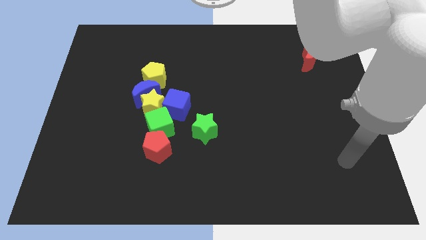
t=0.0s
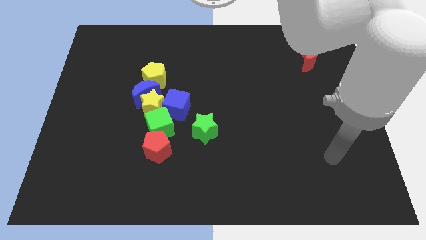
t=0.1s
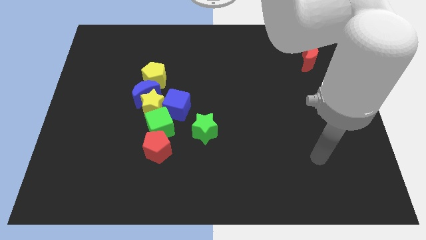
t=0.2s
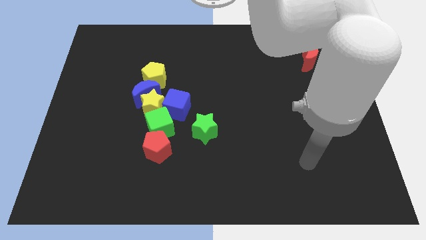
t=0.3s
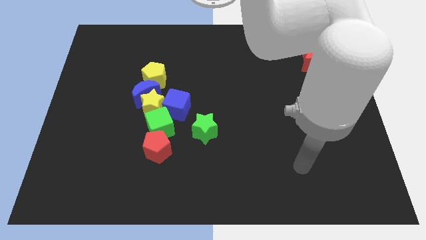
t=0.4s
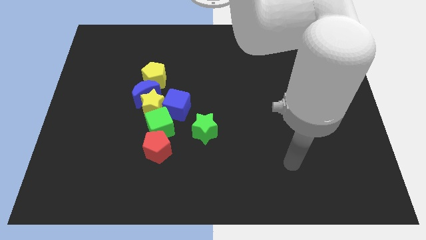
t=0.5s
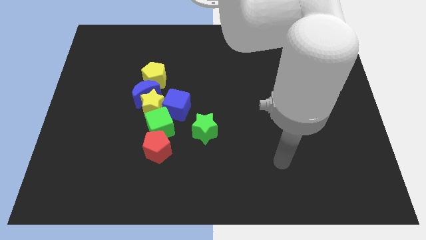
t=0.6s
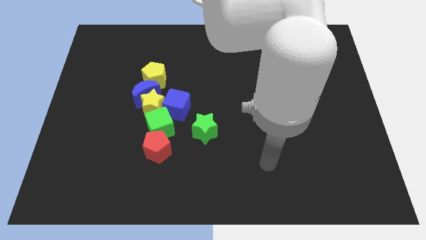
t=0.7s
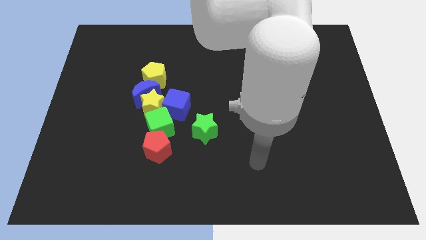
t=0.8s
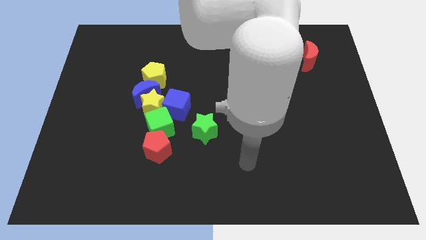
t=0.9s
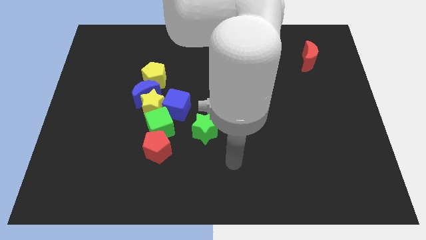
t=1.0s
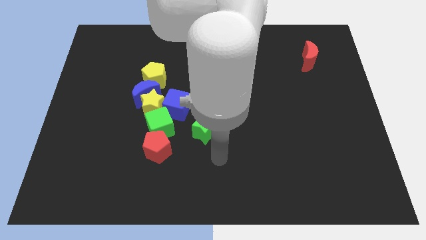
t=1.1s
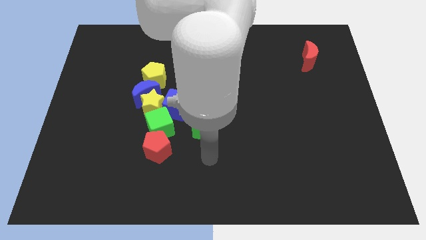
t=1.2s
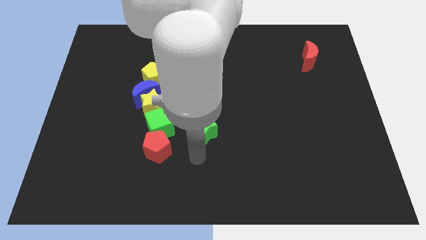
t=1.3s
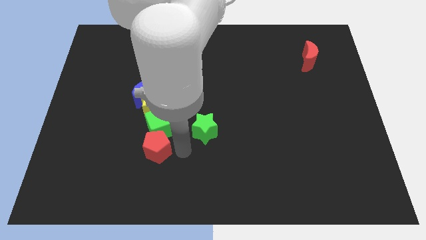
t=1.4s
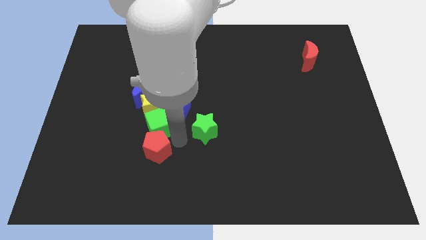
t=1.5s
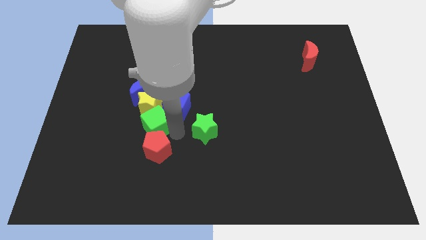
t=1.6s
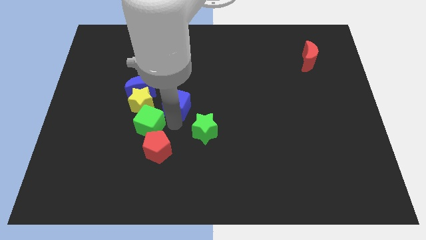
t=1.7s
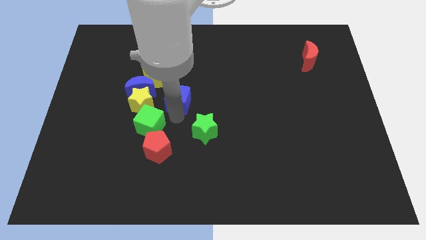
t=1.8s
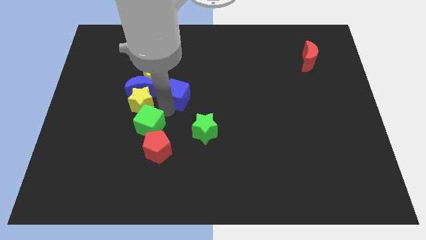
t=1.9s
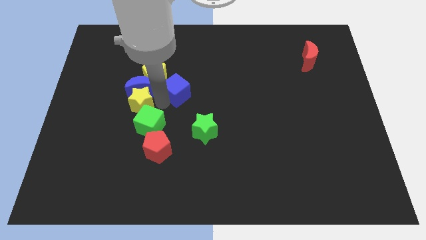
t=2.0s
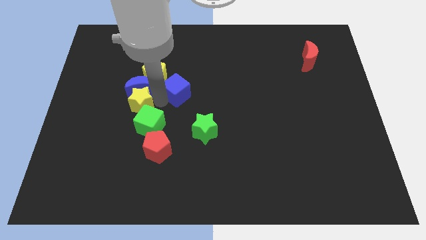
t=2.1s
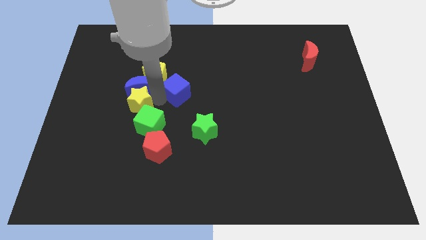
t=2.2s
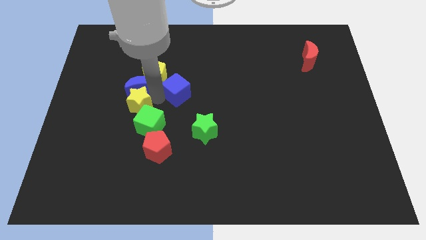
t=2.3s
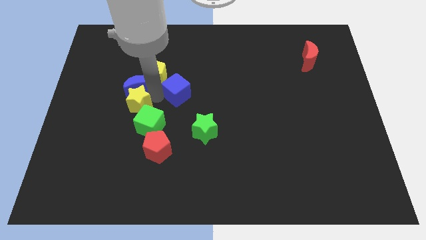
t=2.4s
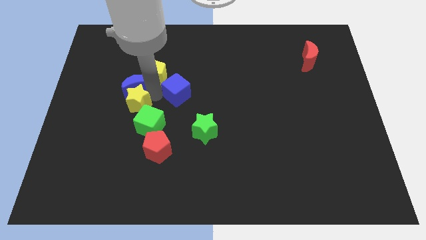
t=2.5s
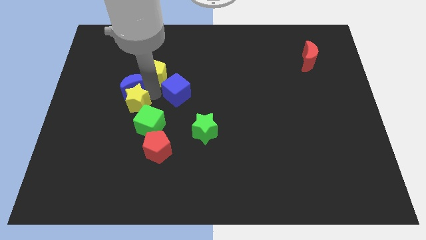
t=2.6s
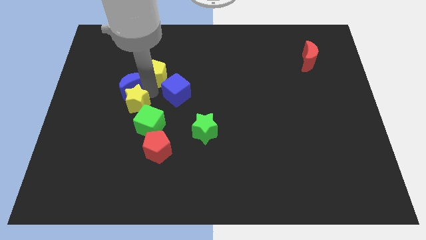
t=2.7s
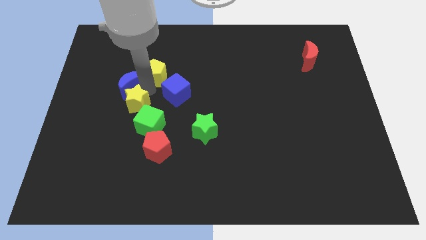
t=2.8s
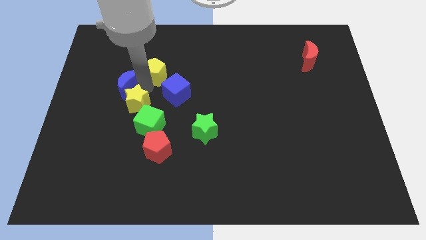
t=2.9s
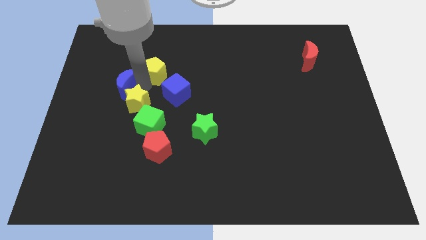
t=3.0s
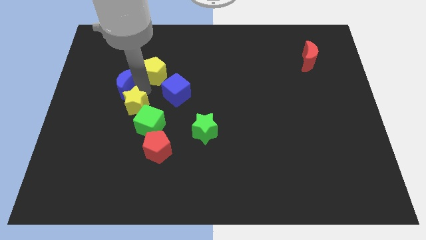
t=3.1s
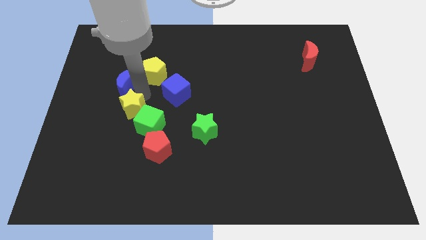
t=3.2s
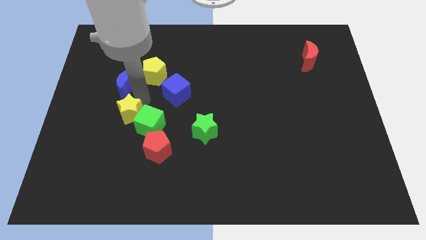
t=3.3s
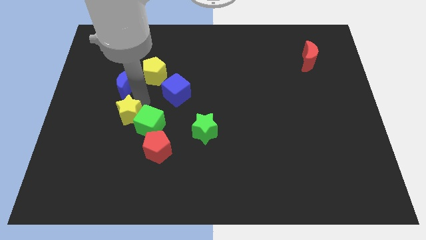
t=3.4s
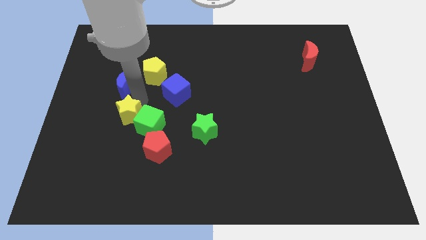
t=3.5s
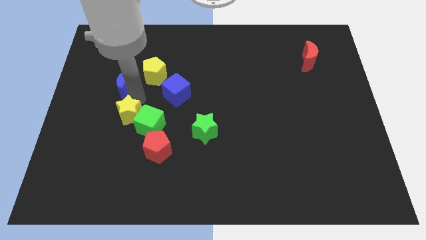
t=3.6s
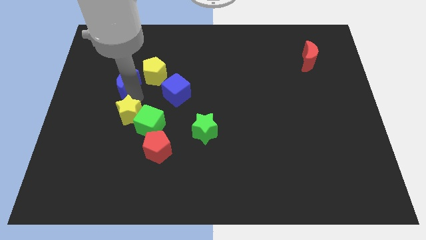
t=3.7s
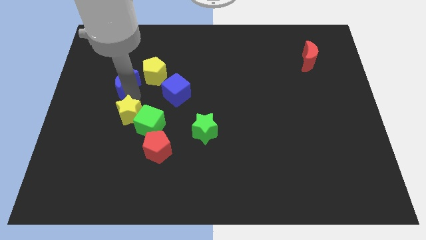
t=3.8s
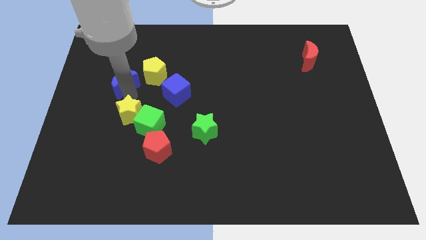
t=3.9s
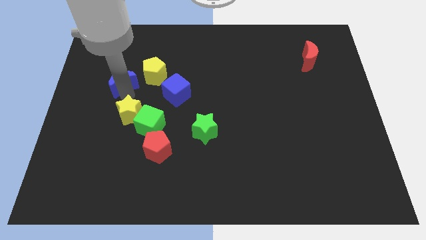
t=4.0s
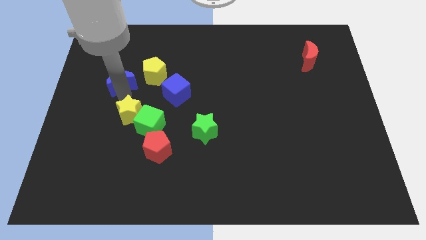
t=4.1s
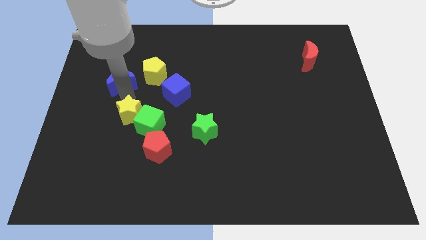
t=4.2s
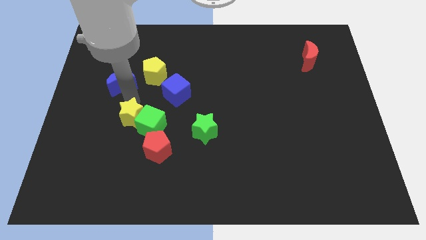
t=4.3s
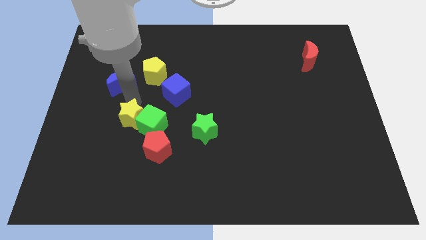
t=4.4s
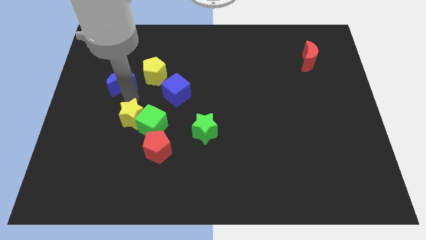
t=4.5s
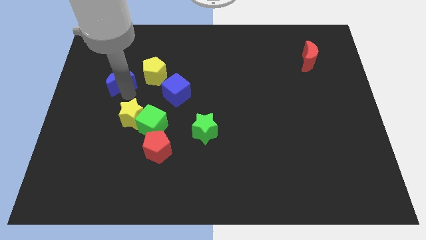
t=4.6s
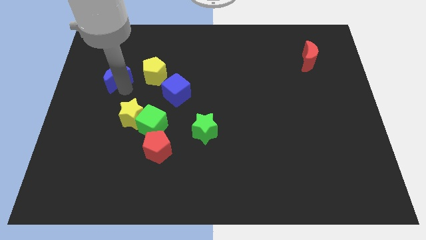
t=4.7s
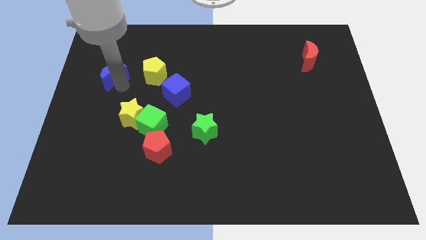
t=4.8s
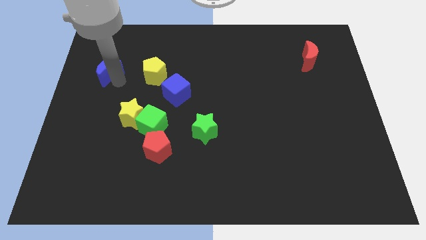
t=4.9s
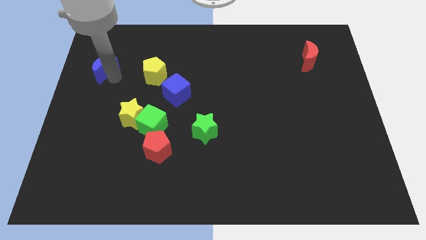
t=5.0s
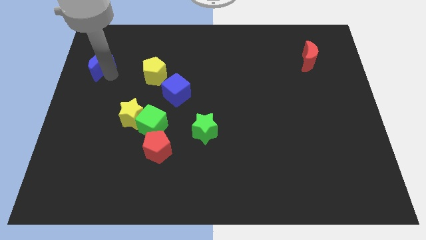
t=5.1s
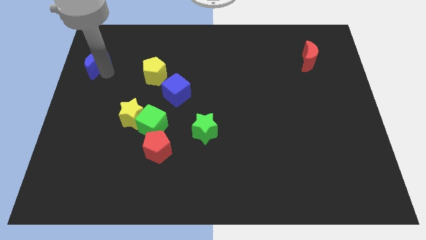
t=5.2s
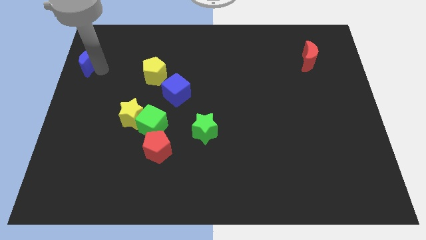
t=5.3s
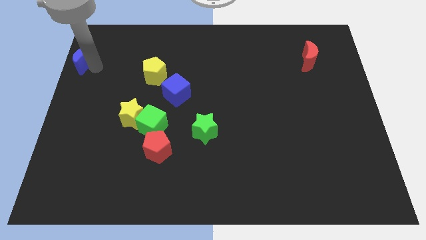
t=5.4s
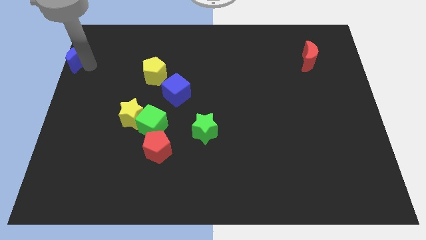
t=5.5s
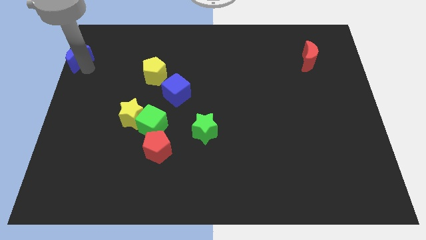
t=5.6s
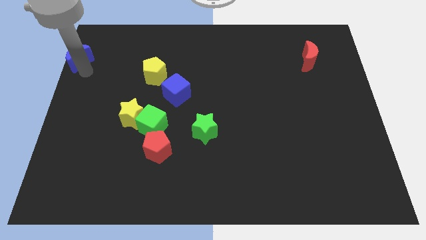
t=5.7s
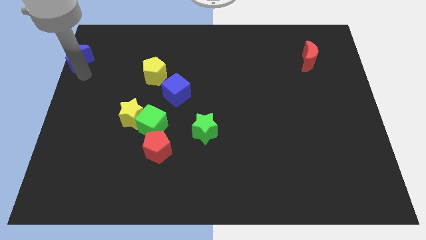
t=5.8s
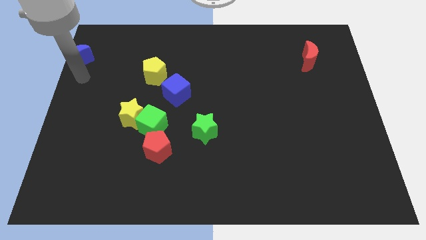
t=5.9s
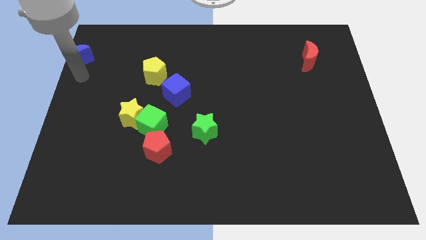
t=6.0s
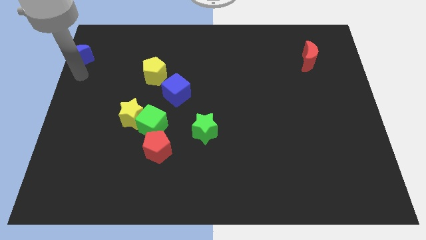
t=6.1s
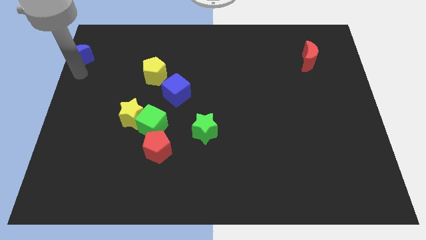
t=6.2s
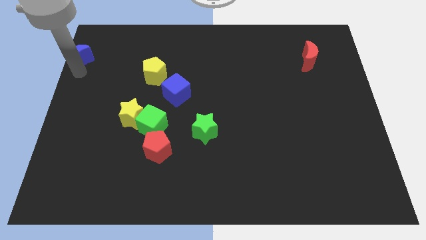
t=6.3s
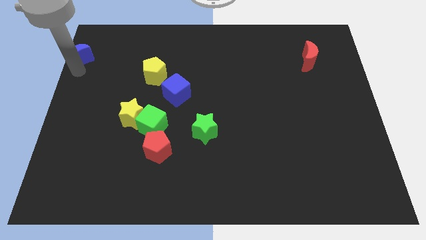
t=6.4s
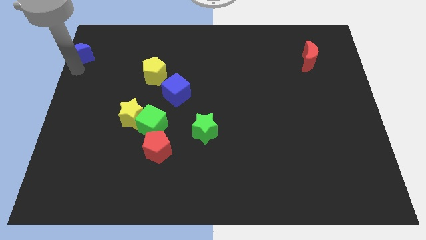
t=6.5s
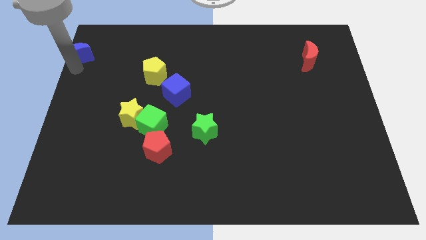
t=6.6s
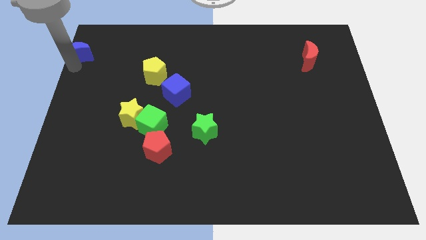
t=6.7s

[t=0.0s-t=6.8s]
put the blue moon to the top left
